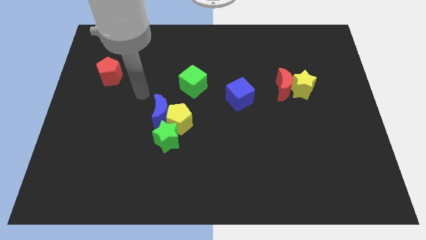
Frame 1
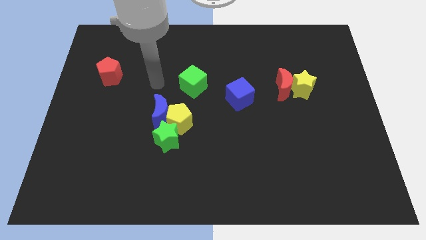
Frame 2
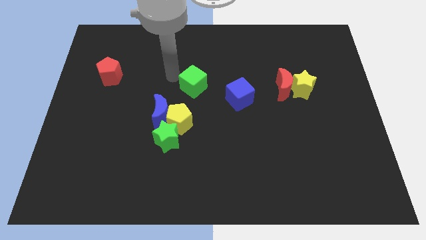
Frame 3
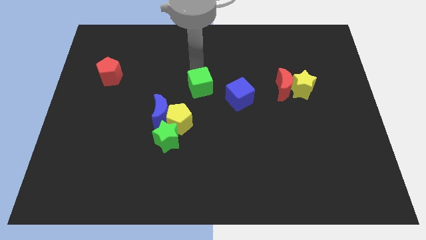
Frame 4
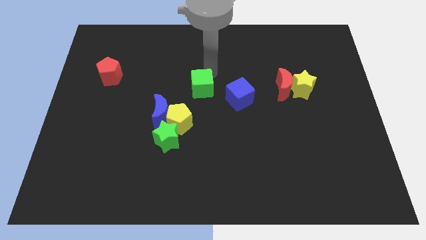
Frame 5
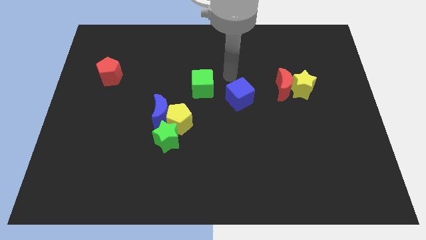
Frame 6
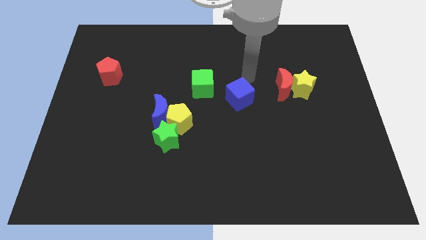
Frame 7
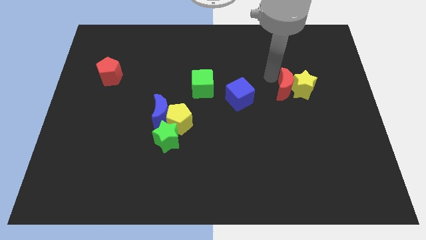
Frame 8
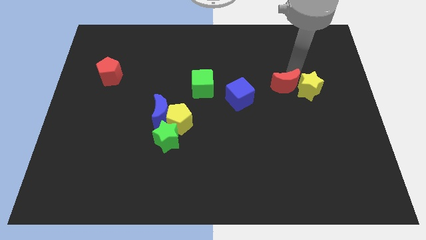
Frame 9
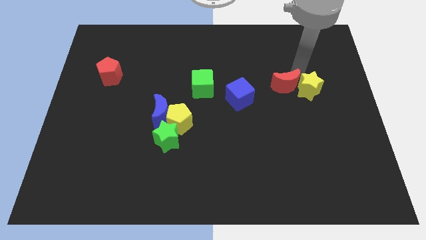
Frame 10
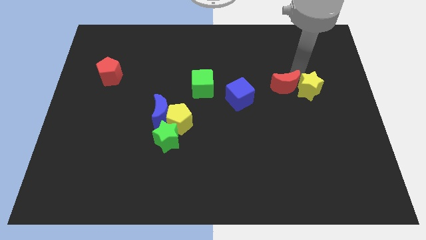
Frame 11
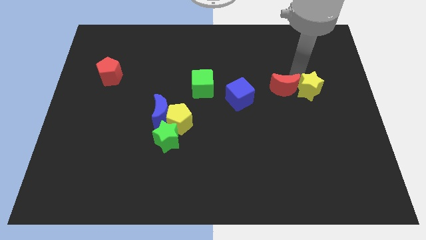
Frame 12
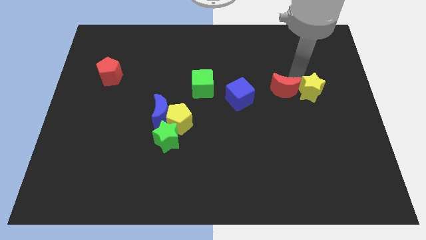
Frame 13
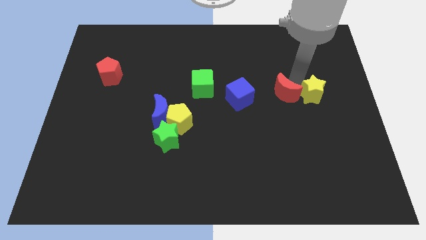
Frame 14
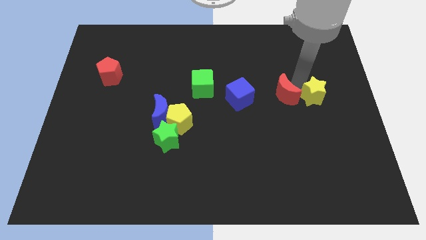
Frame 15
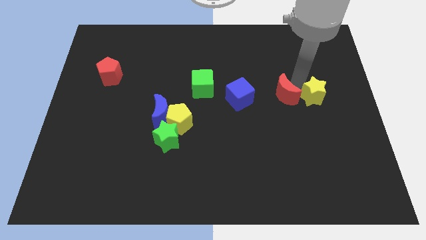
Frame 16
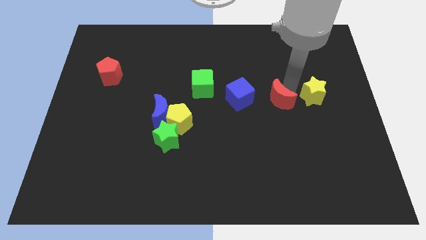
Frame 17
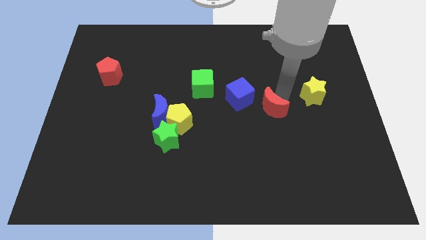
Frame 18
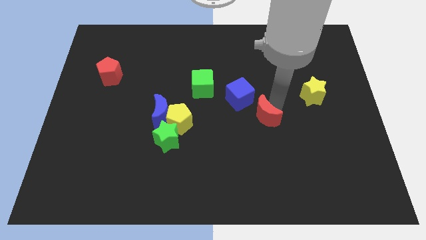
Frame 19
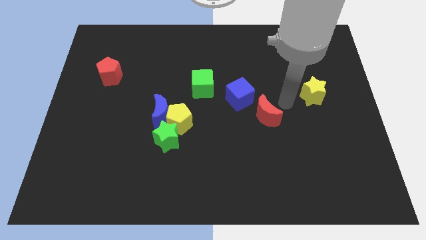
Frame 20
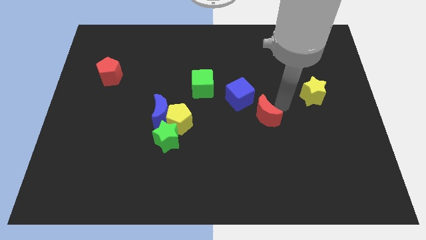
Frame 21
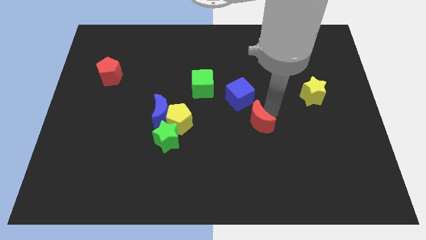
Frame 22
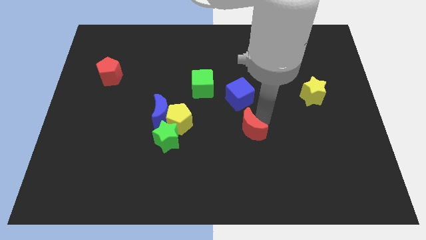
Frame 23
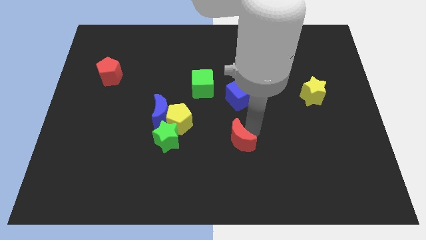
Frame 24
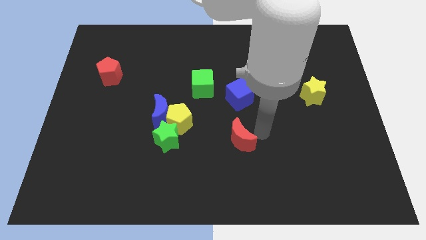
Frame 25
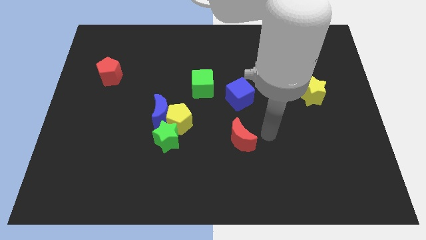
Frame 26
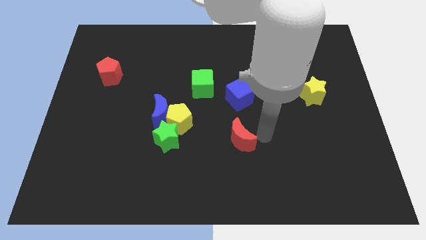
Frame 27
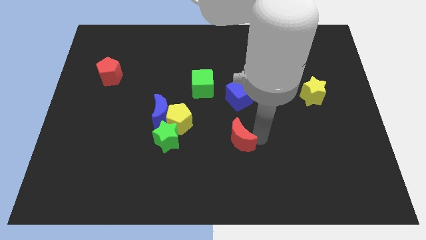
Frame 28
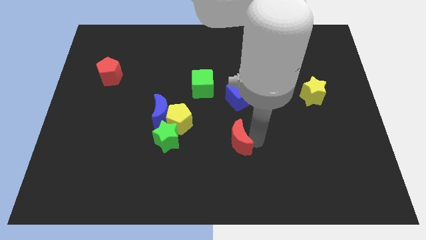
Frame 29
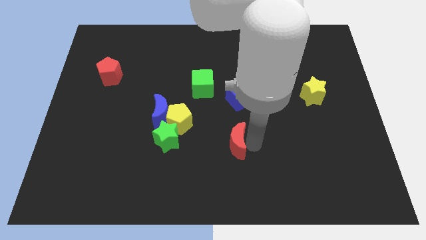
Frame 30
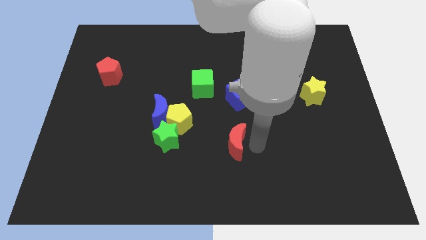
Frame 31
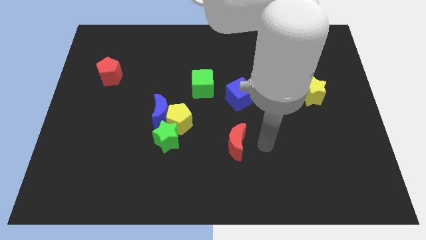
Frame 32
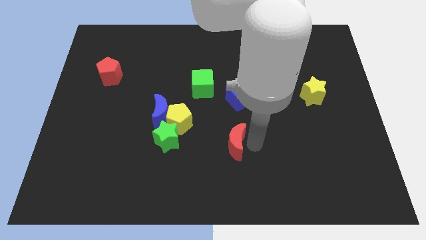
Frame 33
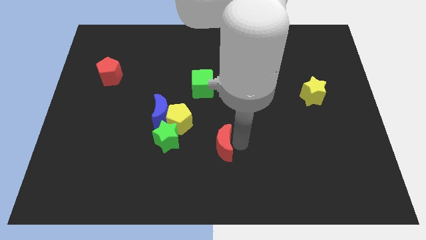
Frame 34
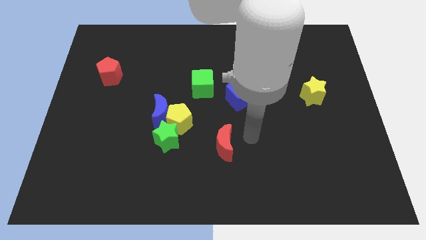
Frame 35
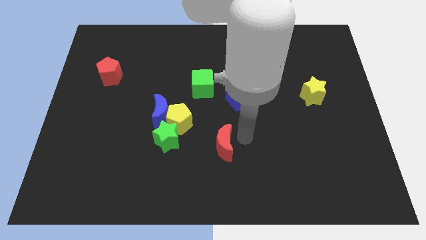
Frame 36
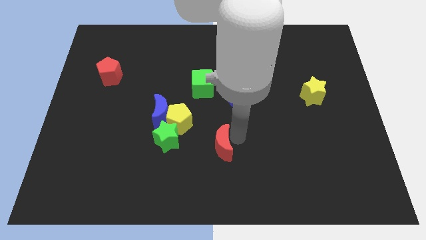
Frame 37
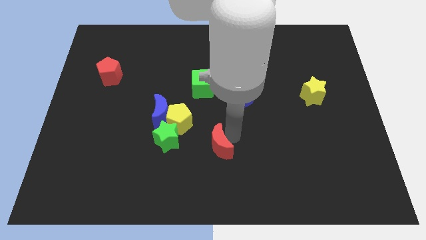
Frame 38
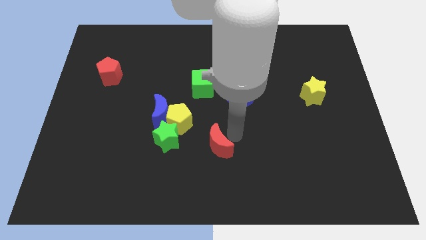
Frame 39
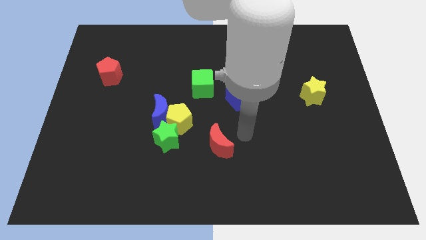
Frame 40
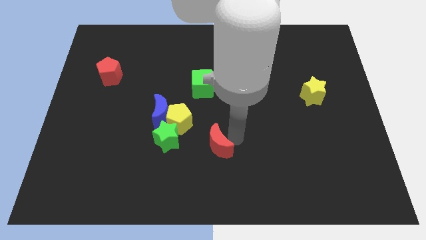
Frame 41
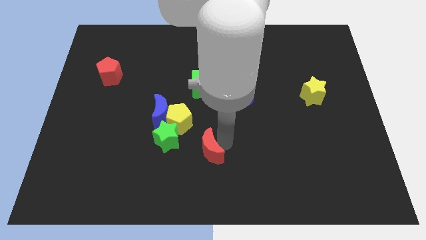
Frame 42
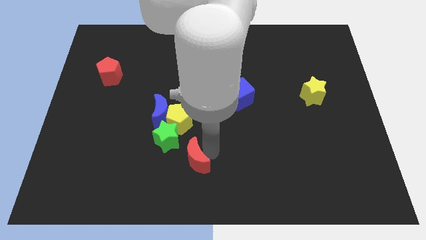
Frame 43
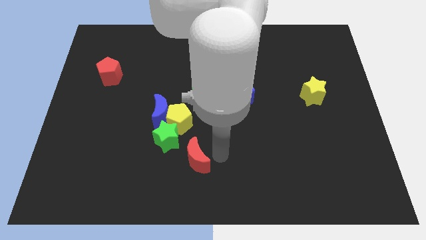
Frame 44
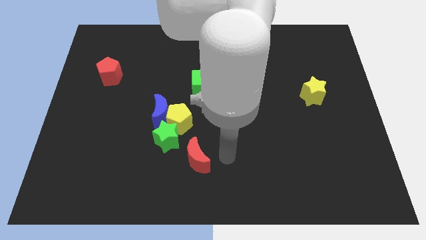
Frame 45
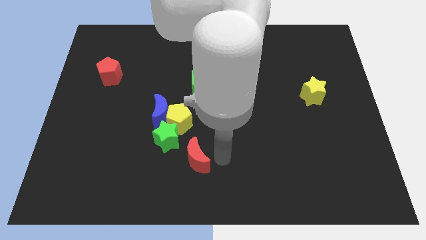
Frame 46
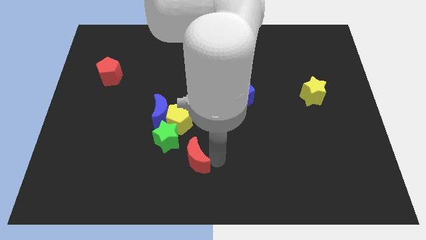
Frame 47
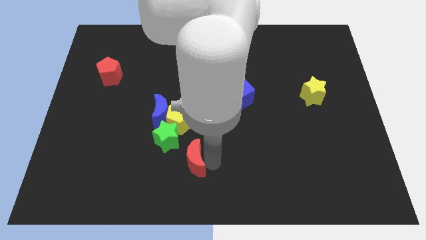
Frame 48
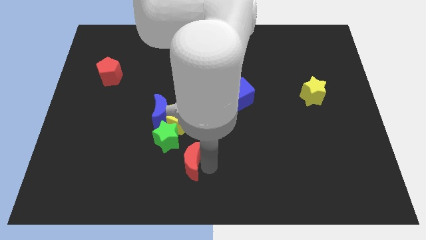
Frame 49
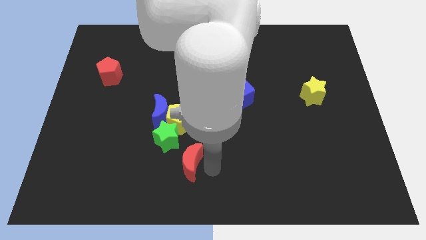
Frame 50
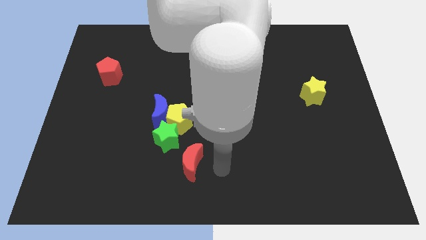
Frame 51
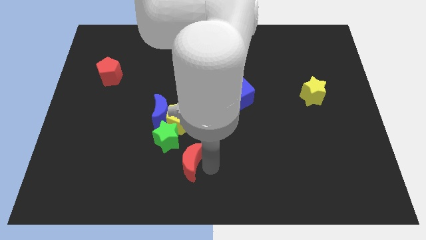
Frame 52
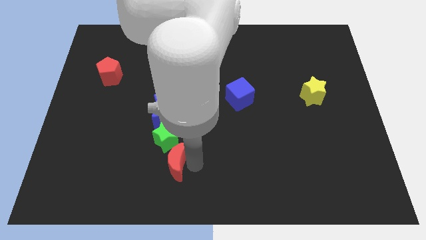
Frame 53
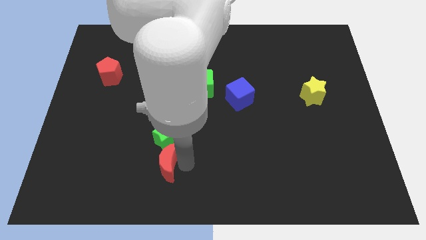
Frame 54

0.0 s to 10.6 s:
push the red moon to the bottom left side of the green star

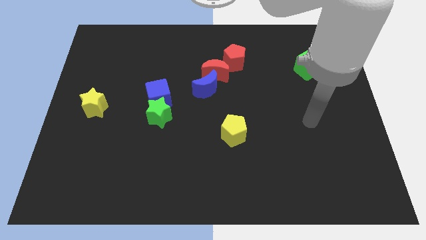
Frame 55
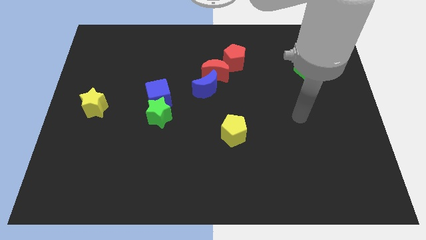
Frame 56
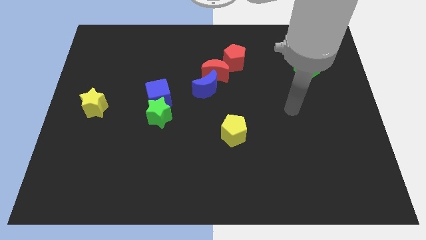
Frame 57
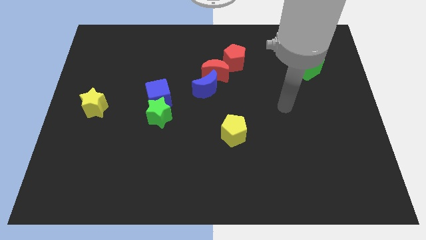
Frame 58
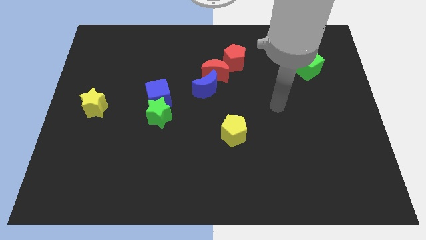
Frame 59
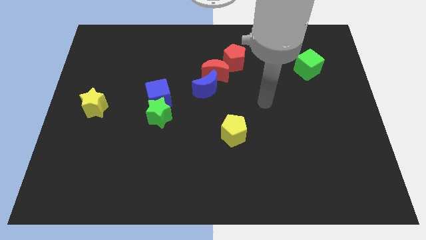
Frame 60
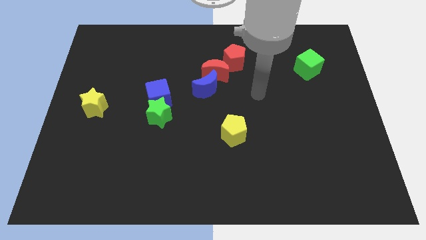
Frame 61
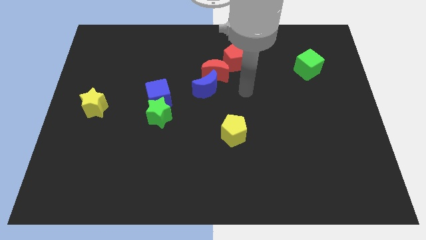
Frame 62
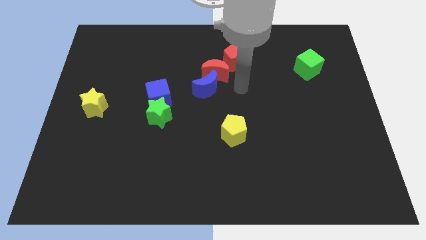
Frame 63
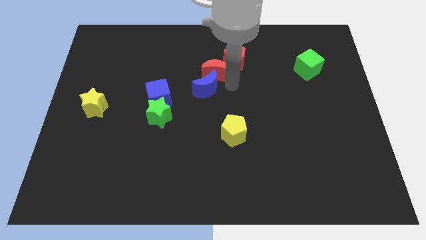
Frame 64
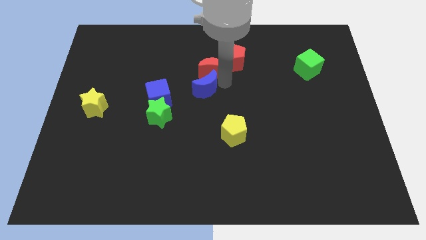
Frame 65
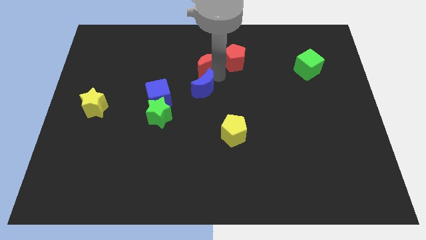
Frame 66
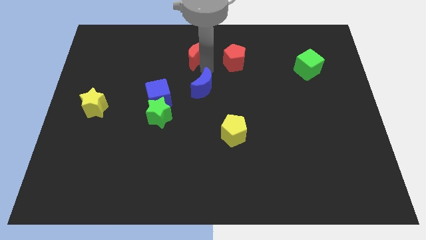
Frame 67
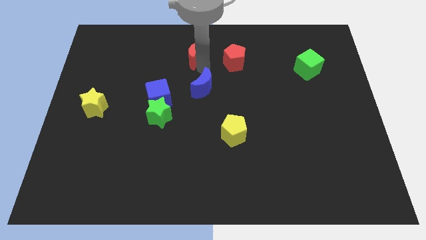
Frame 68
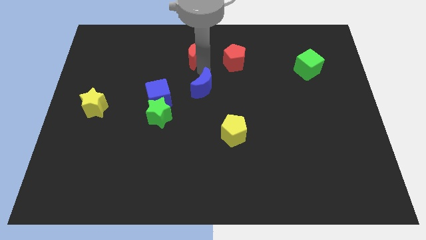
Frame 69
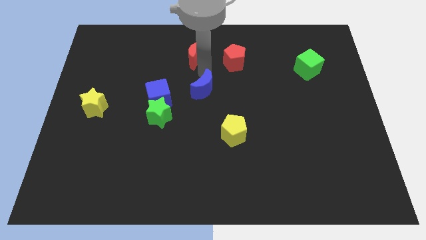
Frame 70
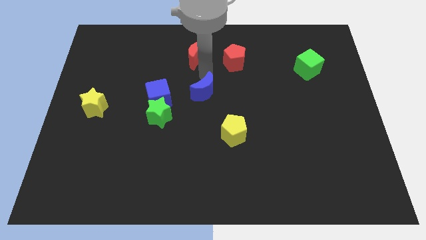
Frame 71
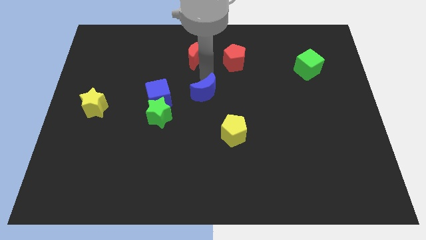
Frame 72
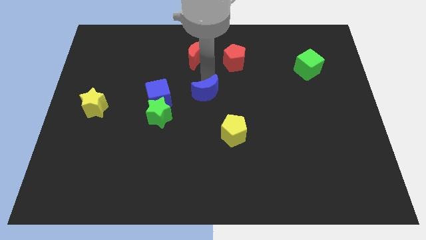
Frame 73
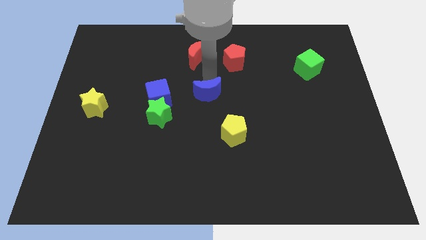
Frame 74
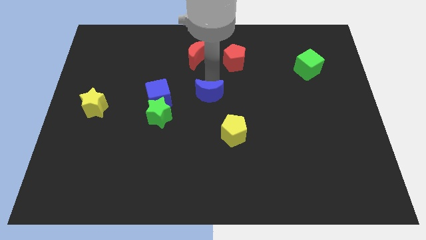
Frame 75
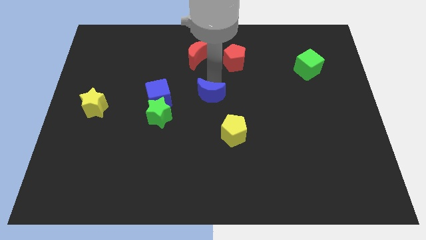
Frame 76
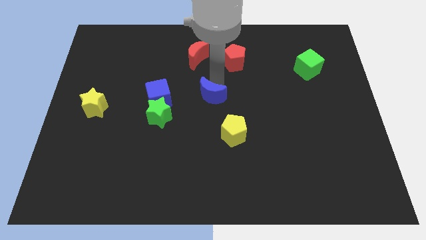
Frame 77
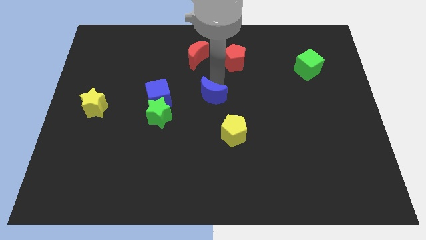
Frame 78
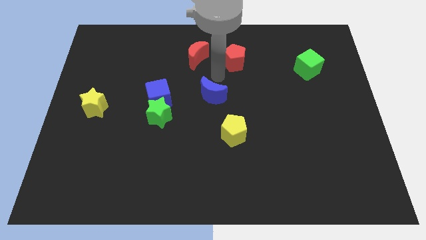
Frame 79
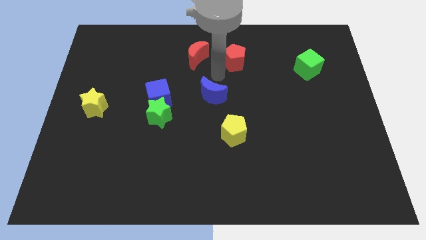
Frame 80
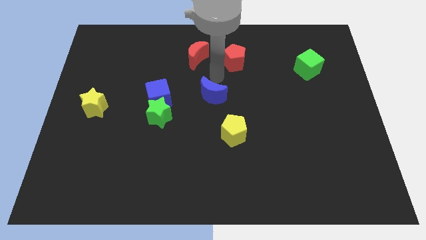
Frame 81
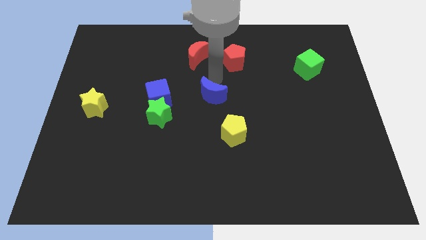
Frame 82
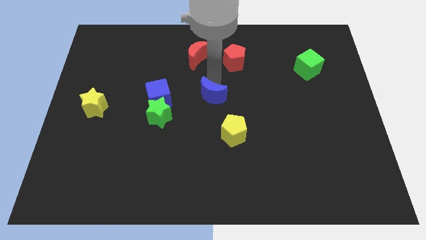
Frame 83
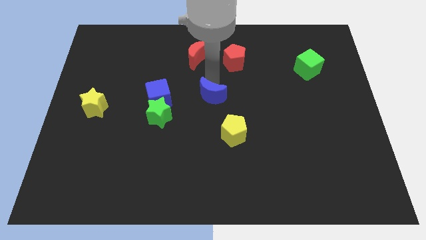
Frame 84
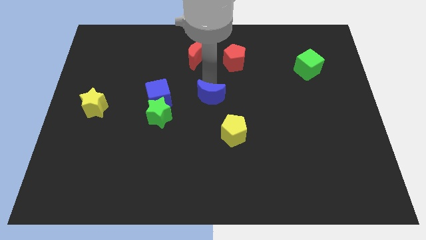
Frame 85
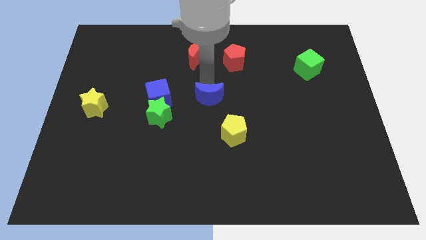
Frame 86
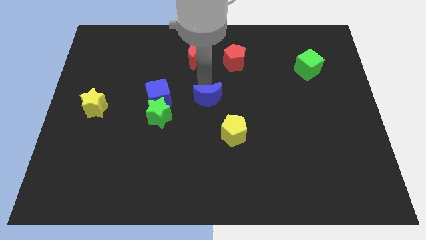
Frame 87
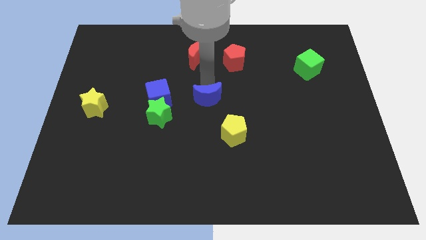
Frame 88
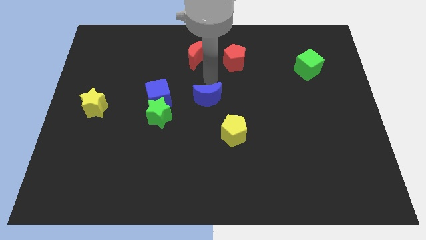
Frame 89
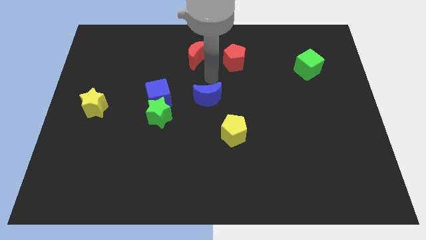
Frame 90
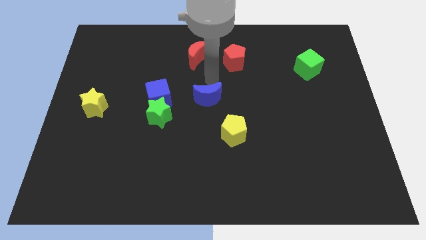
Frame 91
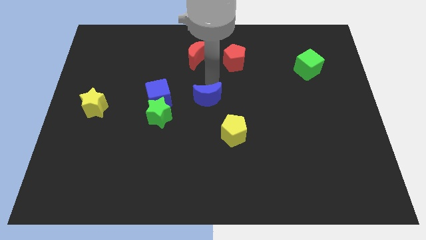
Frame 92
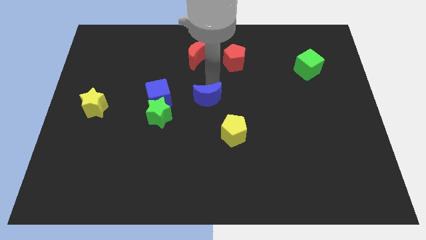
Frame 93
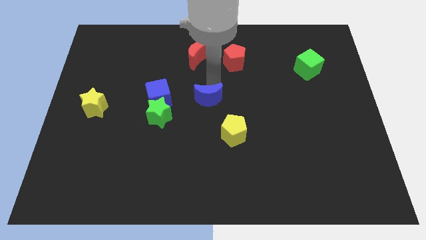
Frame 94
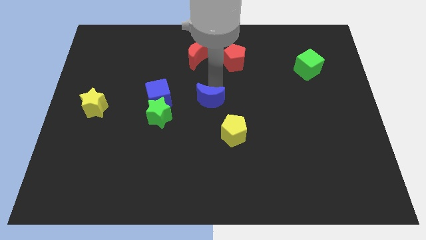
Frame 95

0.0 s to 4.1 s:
put the blue moon just right of the green star
